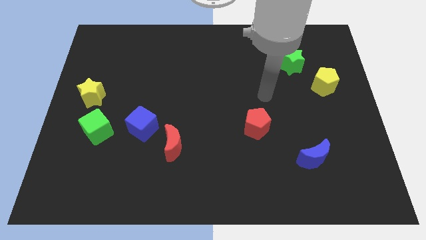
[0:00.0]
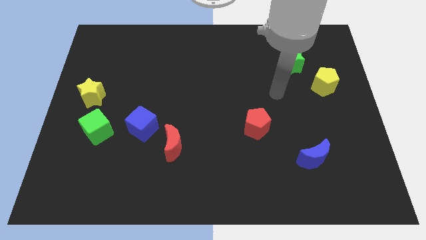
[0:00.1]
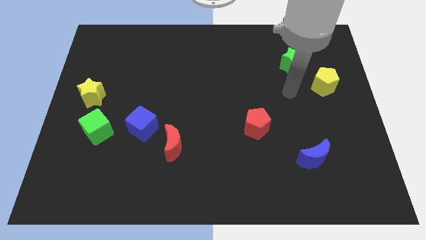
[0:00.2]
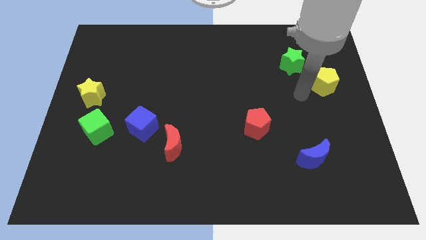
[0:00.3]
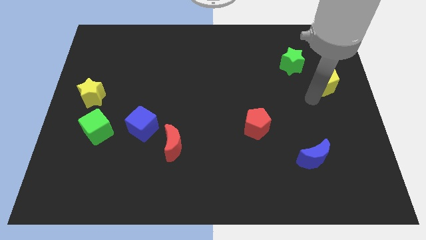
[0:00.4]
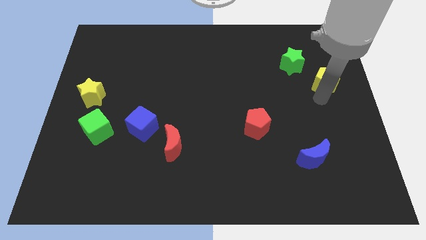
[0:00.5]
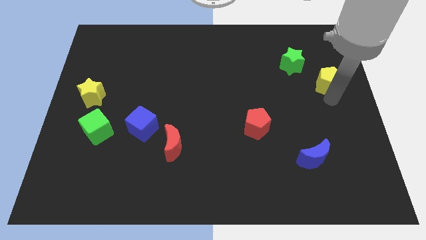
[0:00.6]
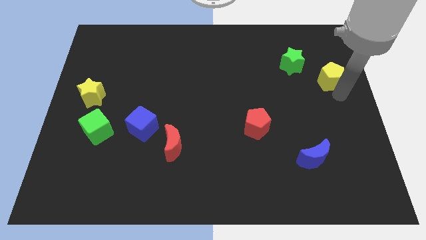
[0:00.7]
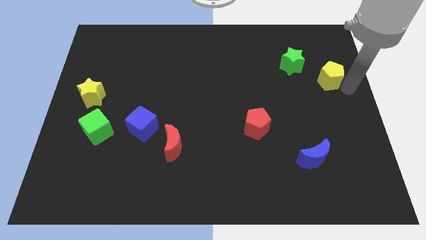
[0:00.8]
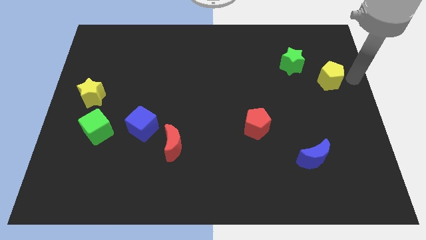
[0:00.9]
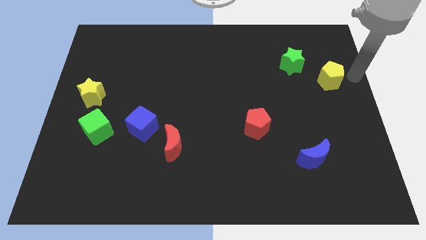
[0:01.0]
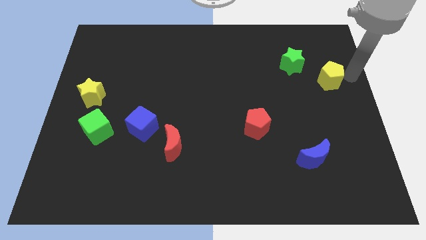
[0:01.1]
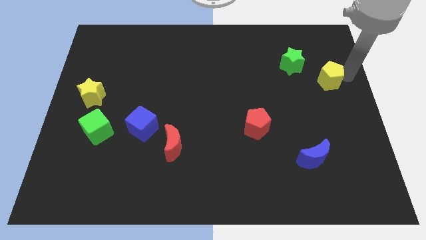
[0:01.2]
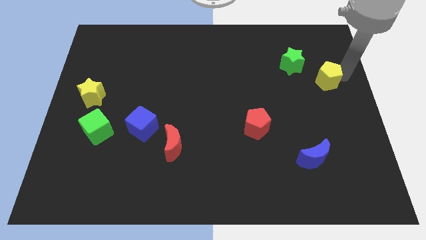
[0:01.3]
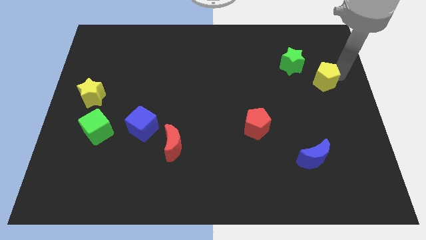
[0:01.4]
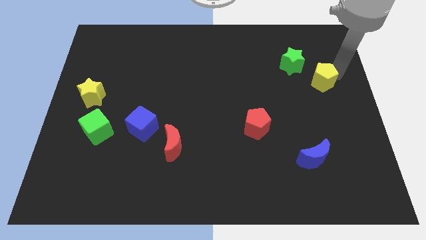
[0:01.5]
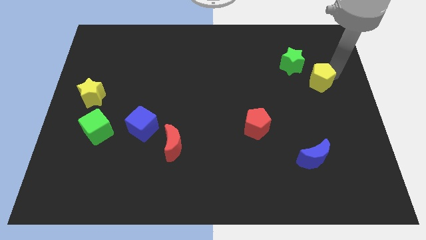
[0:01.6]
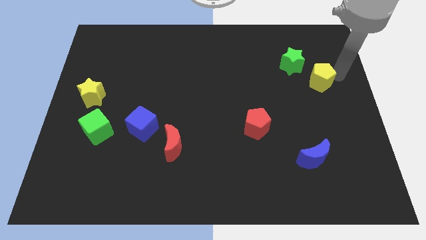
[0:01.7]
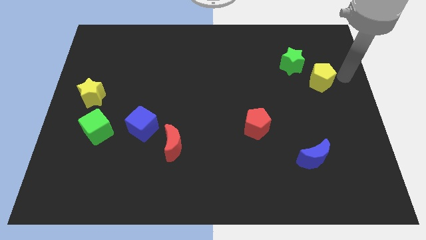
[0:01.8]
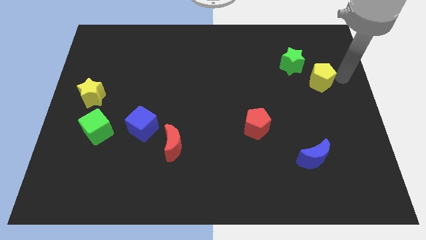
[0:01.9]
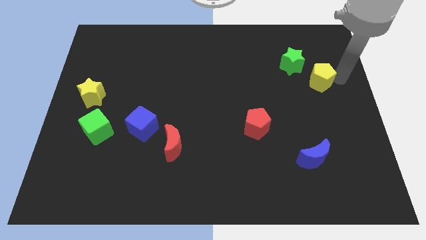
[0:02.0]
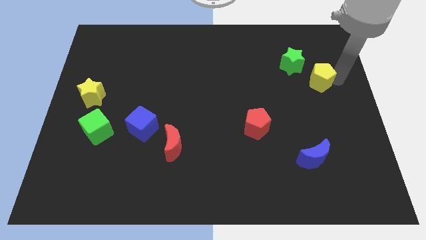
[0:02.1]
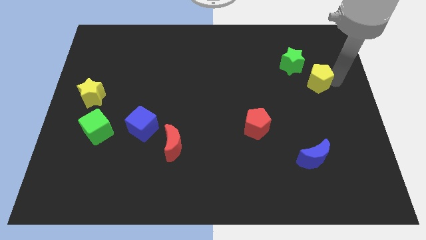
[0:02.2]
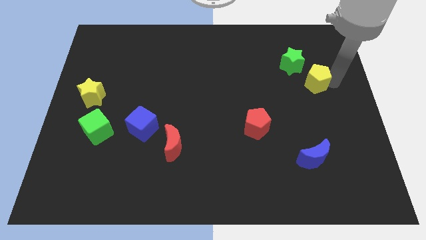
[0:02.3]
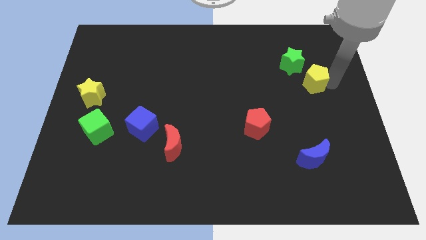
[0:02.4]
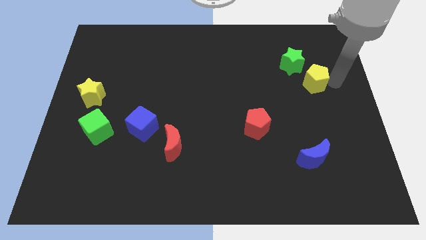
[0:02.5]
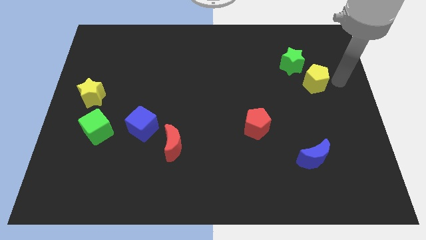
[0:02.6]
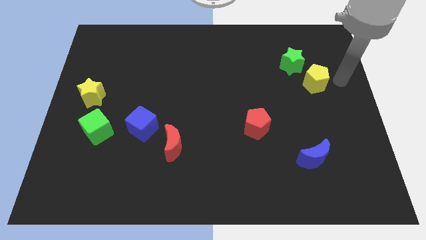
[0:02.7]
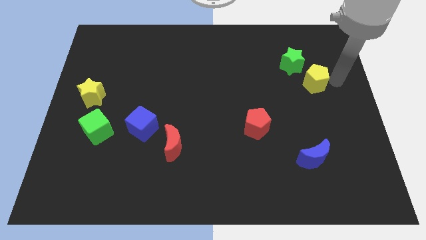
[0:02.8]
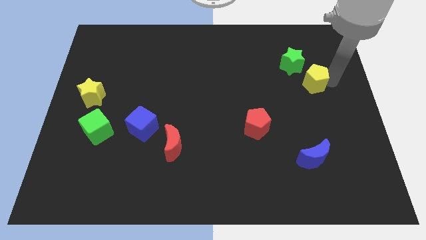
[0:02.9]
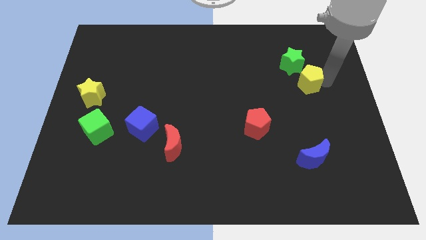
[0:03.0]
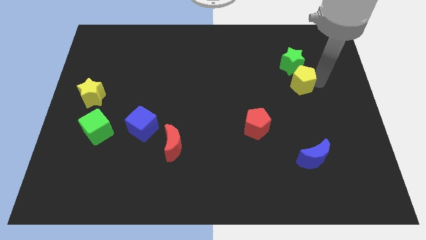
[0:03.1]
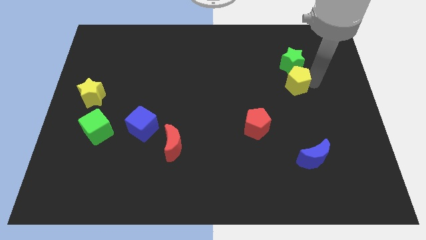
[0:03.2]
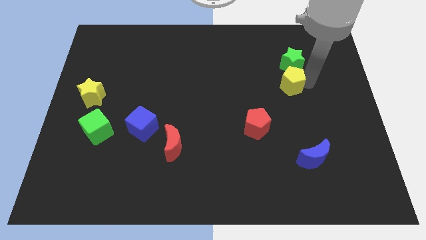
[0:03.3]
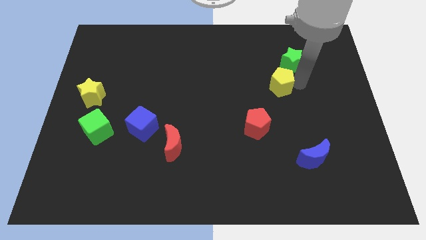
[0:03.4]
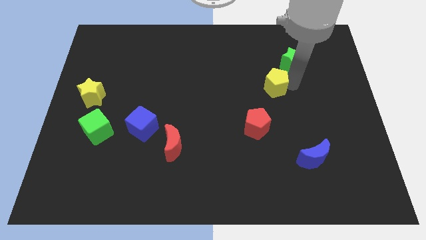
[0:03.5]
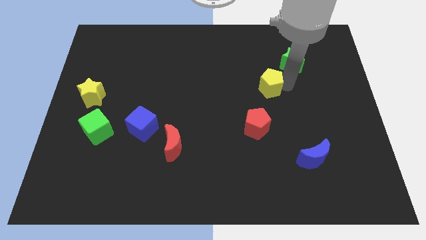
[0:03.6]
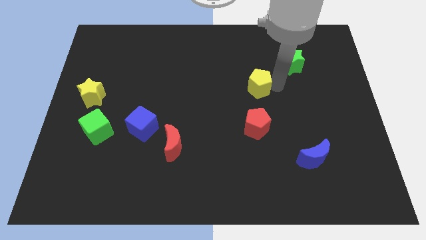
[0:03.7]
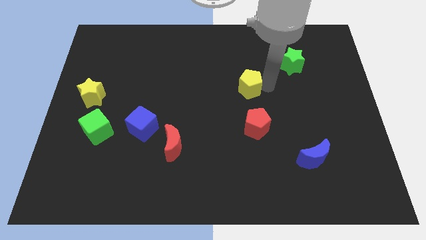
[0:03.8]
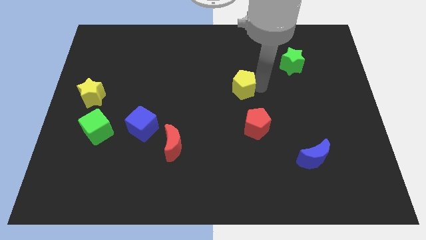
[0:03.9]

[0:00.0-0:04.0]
push the yellow pentagon to the left

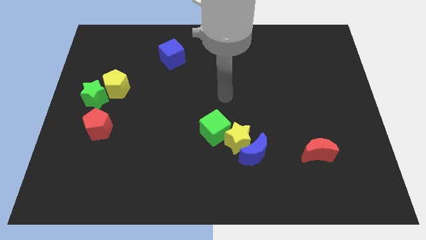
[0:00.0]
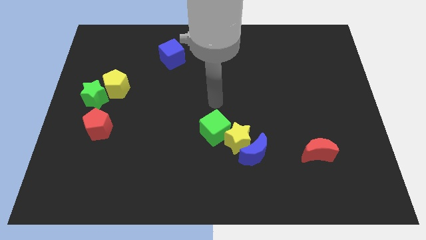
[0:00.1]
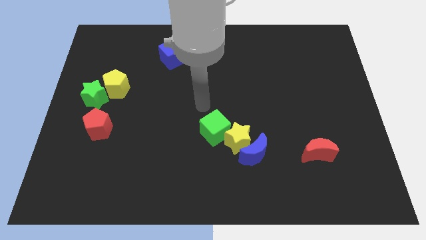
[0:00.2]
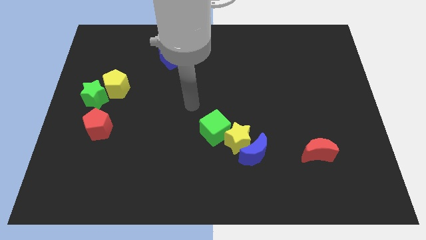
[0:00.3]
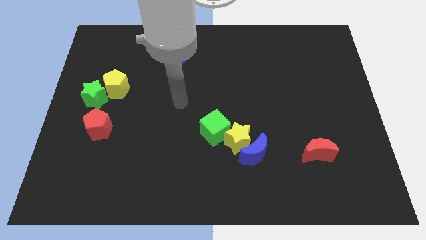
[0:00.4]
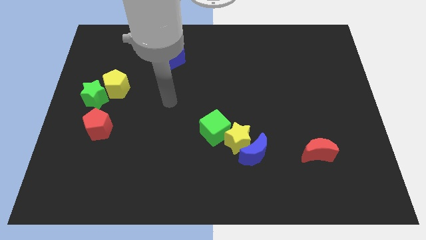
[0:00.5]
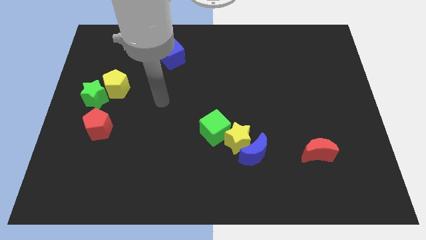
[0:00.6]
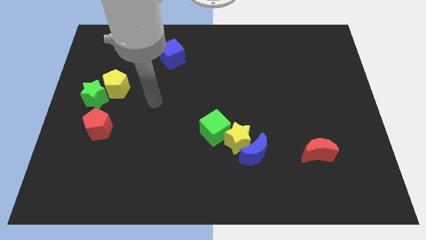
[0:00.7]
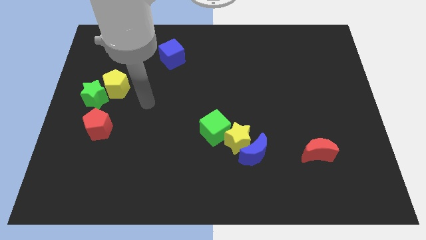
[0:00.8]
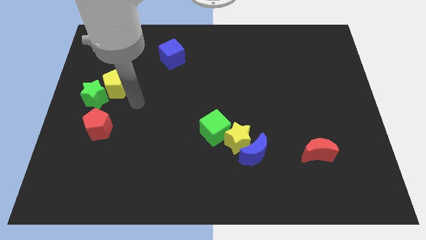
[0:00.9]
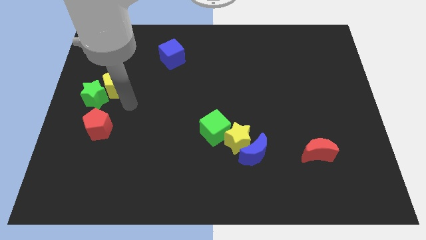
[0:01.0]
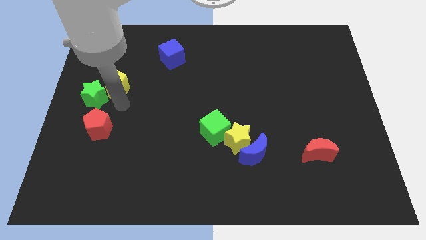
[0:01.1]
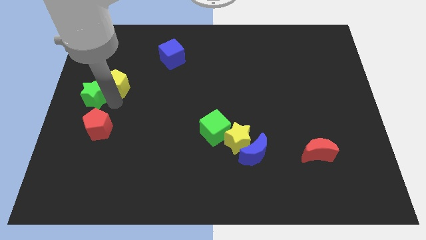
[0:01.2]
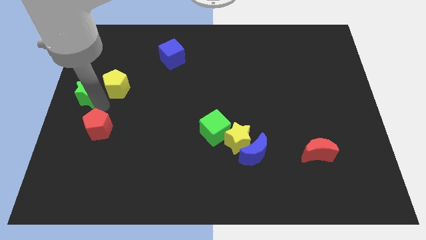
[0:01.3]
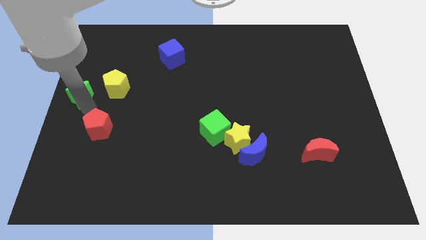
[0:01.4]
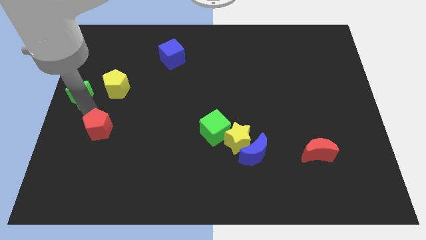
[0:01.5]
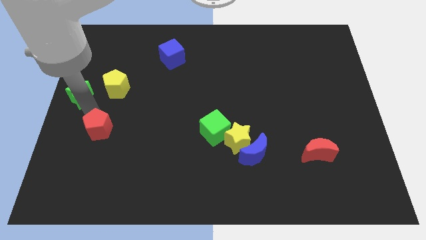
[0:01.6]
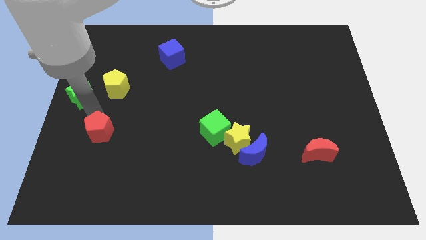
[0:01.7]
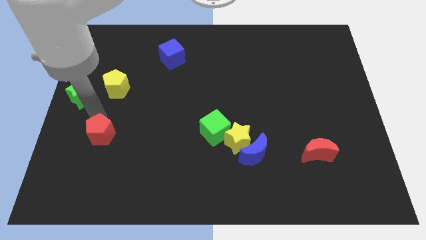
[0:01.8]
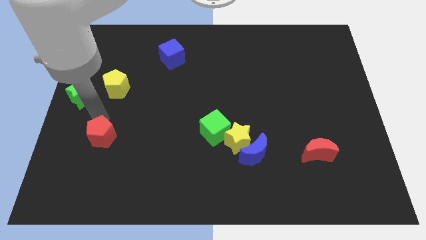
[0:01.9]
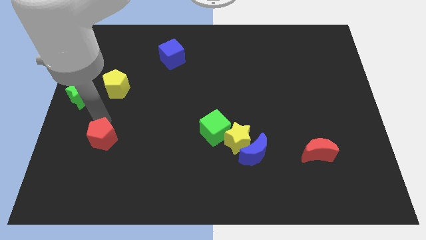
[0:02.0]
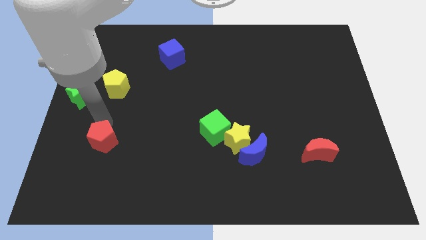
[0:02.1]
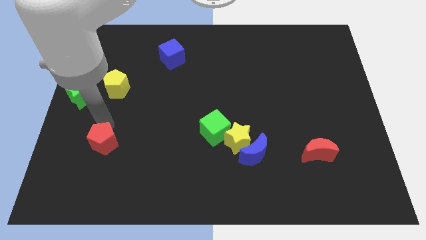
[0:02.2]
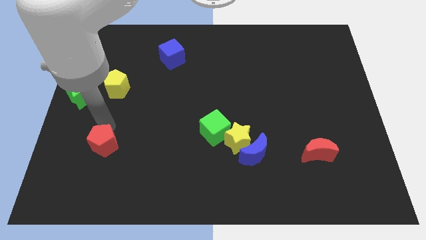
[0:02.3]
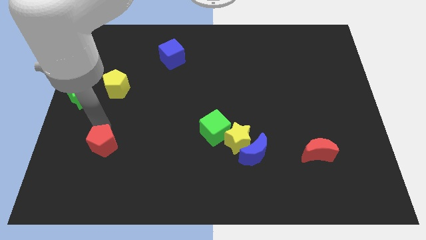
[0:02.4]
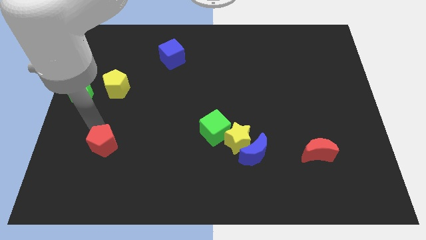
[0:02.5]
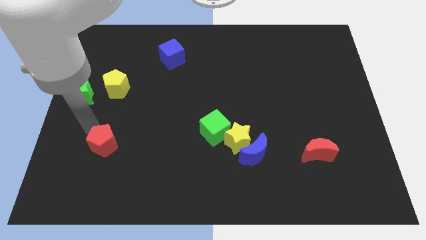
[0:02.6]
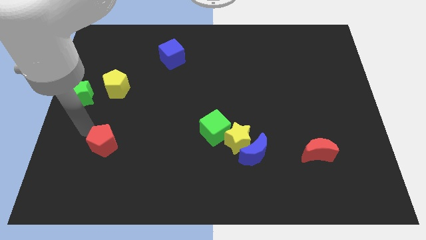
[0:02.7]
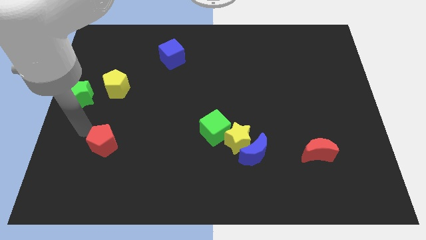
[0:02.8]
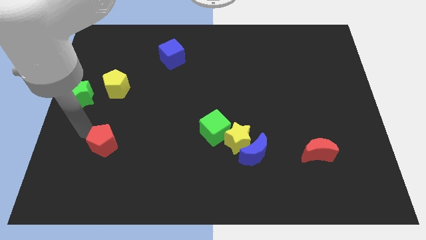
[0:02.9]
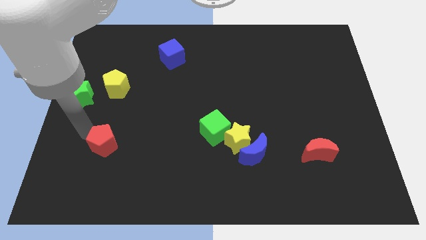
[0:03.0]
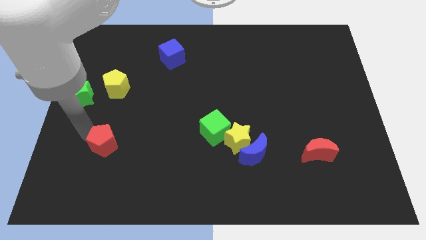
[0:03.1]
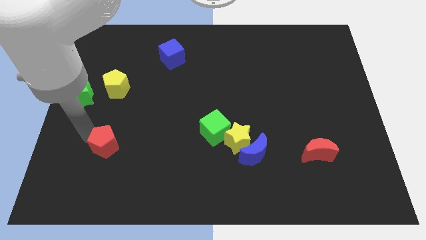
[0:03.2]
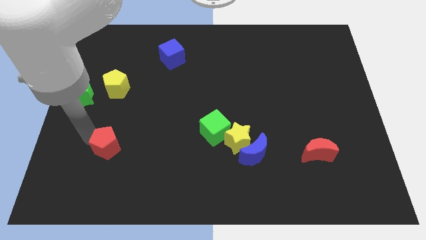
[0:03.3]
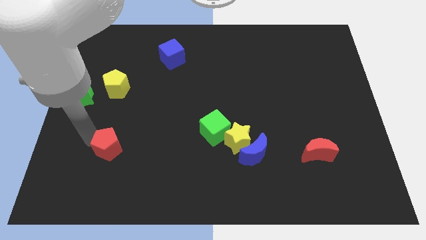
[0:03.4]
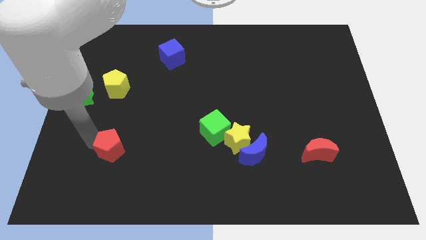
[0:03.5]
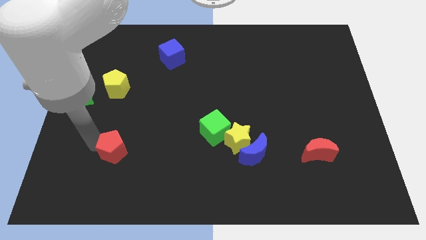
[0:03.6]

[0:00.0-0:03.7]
slide the red pentagon a little downwards and right

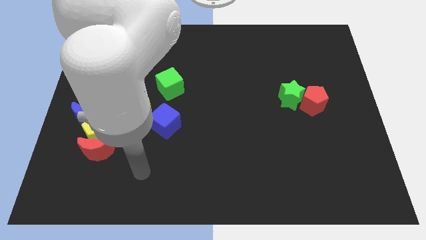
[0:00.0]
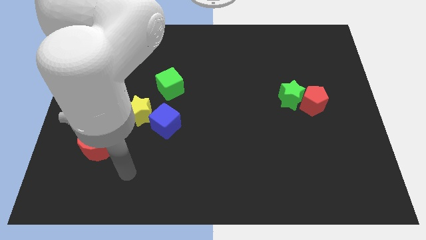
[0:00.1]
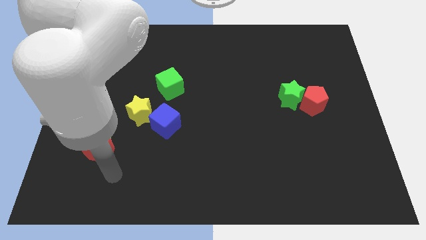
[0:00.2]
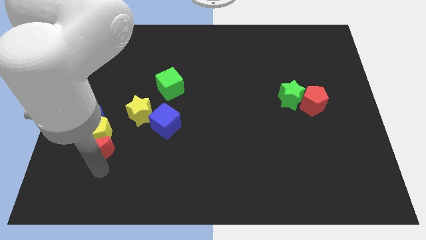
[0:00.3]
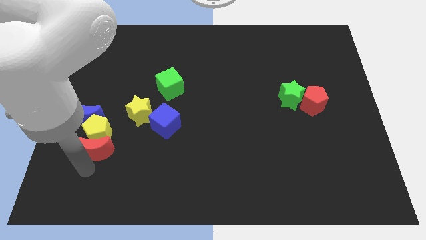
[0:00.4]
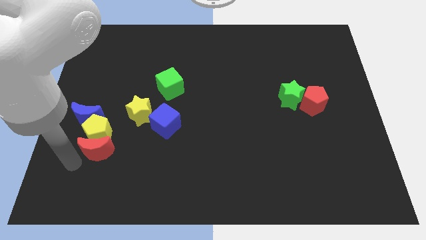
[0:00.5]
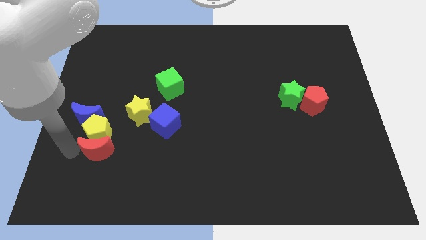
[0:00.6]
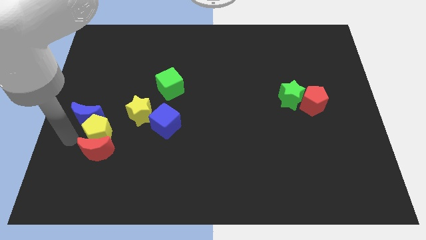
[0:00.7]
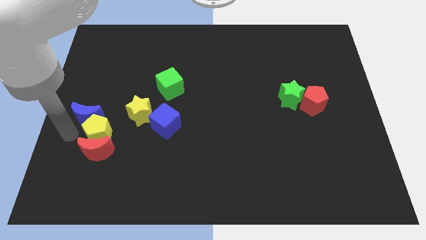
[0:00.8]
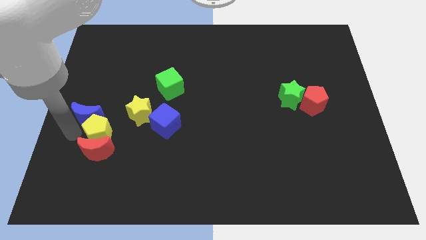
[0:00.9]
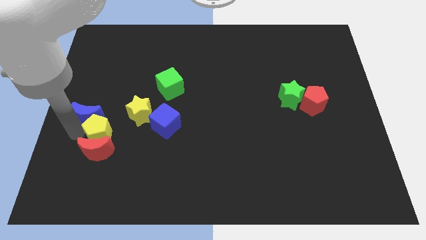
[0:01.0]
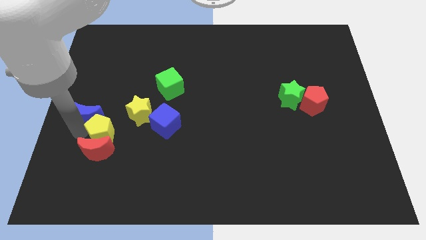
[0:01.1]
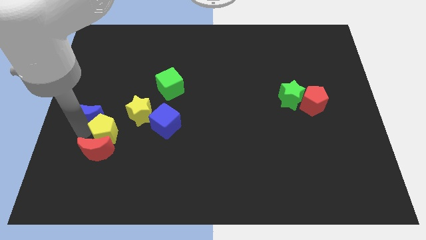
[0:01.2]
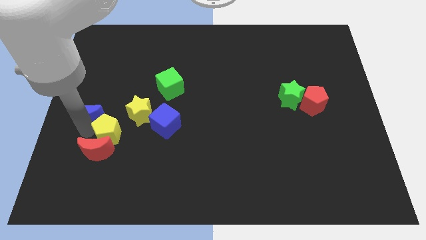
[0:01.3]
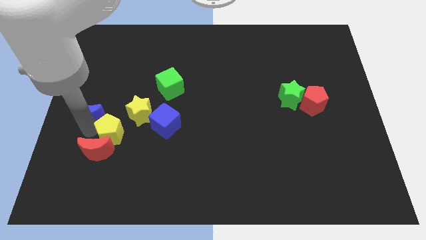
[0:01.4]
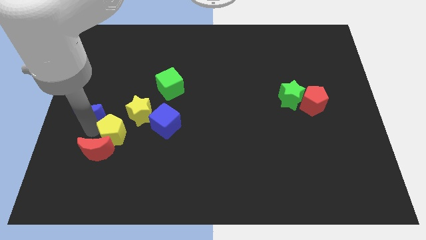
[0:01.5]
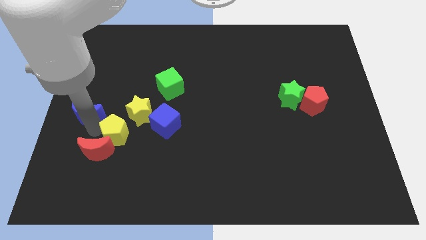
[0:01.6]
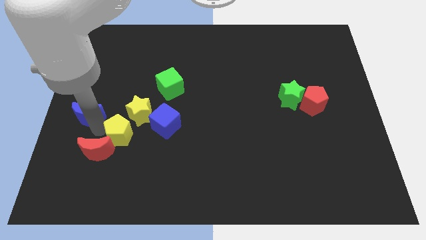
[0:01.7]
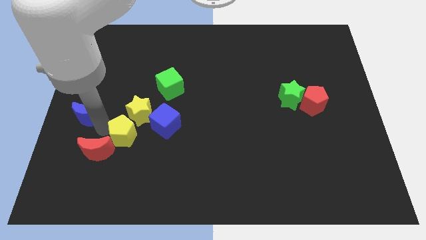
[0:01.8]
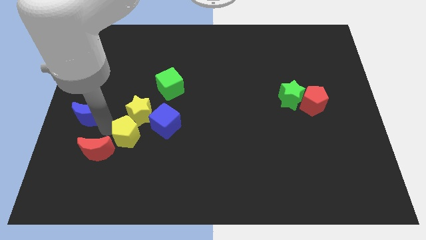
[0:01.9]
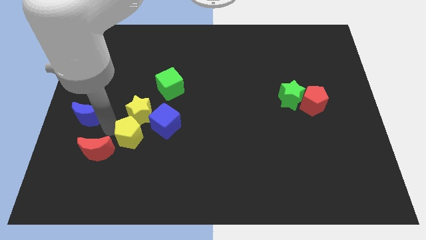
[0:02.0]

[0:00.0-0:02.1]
move the yellow pentagon right slightly
